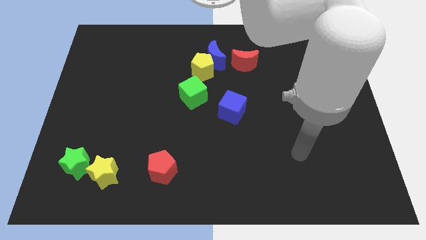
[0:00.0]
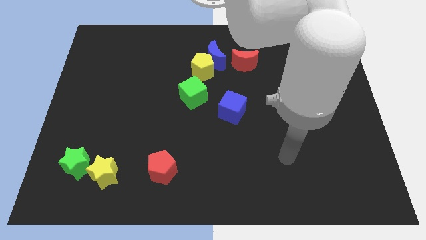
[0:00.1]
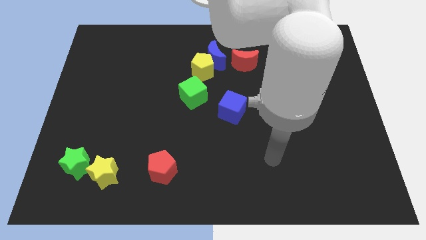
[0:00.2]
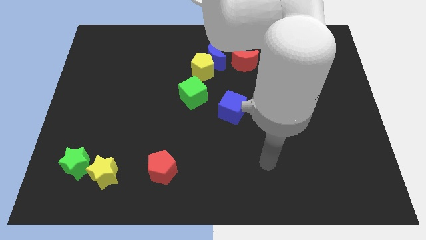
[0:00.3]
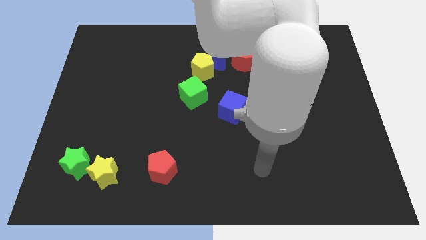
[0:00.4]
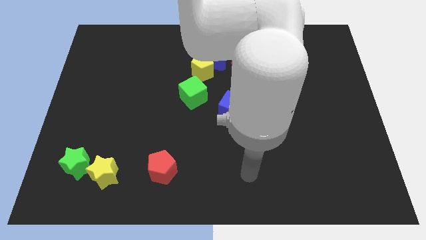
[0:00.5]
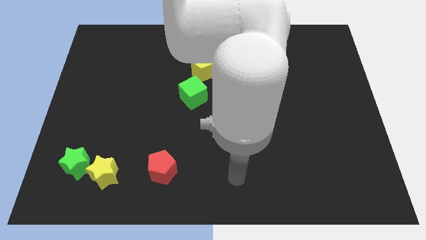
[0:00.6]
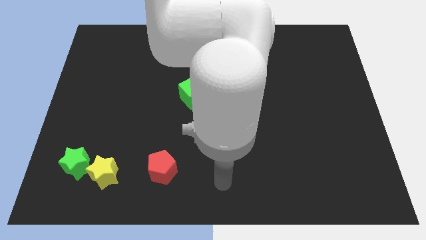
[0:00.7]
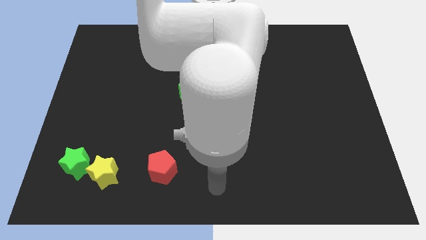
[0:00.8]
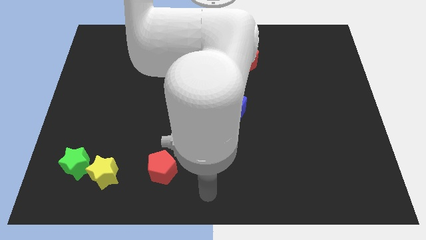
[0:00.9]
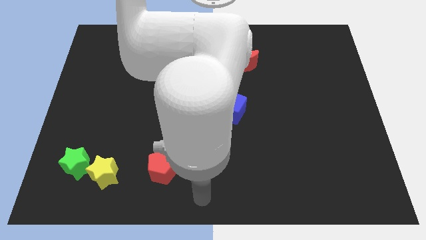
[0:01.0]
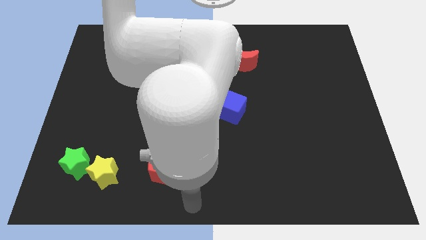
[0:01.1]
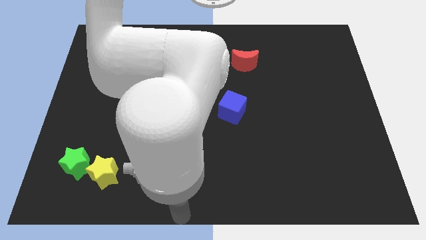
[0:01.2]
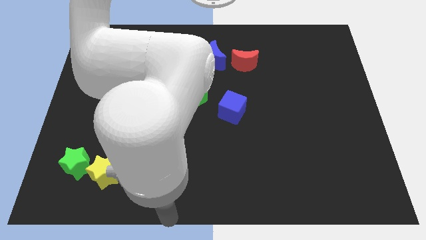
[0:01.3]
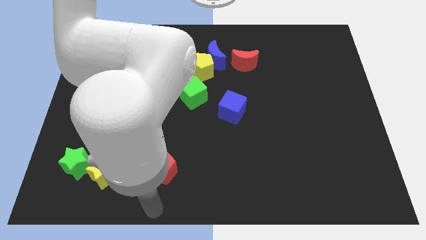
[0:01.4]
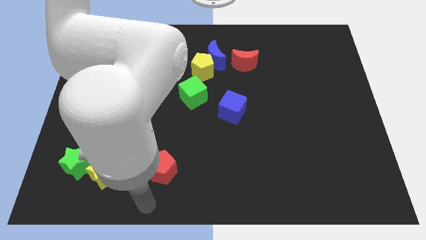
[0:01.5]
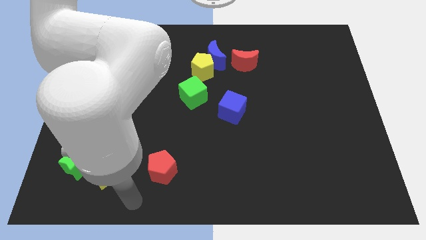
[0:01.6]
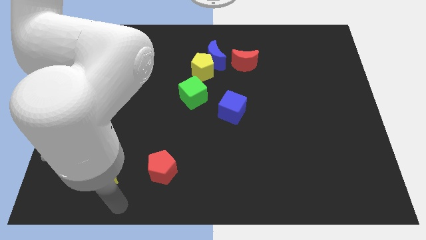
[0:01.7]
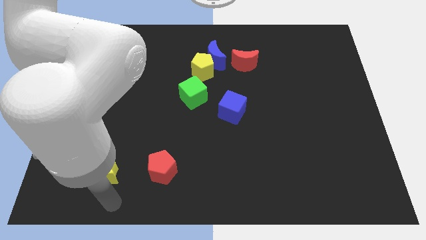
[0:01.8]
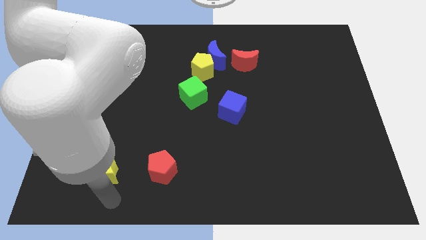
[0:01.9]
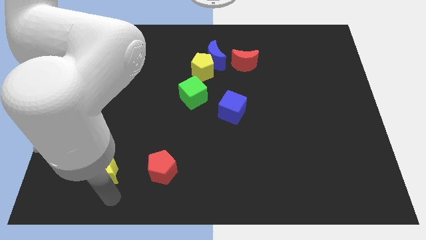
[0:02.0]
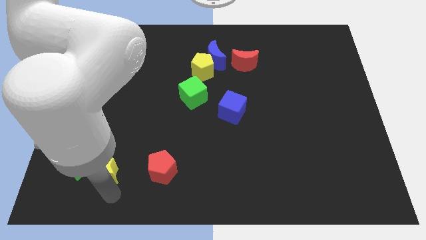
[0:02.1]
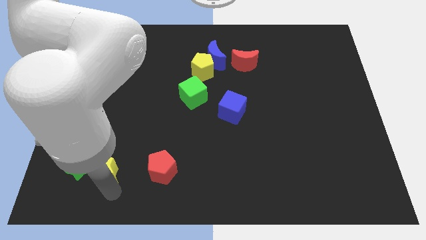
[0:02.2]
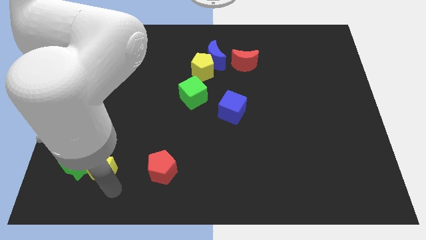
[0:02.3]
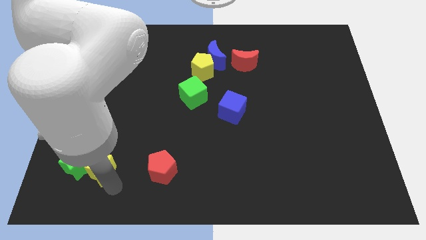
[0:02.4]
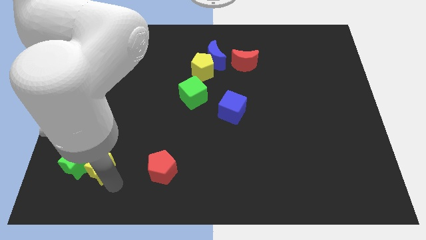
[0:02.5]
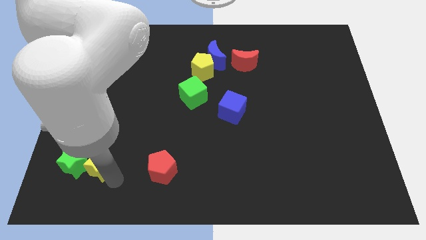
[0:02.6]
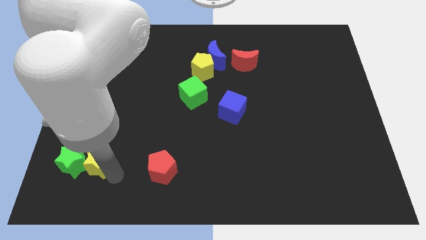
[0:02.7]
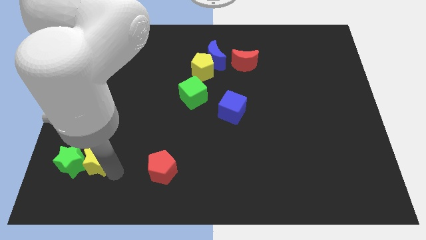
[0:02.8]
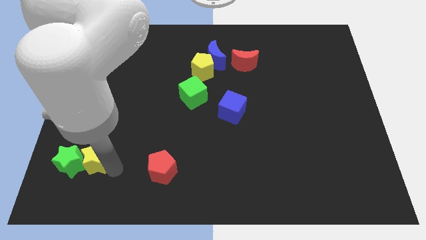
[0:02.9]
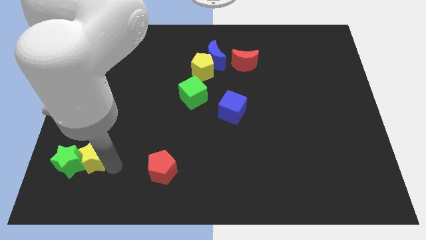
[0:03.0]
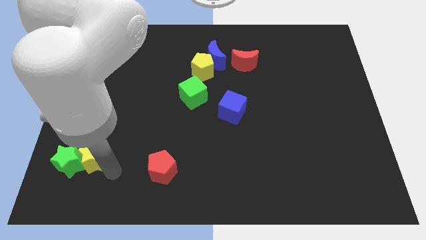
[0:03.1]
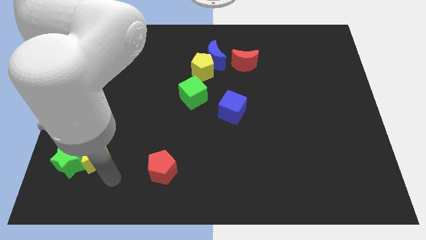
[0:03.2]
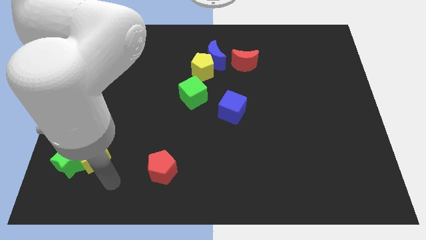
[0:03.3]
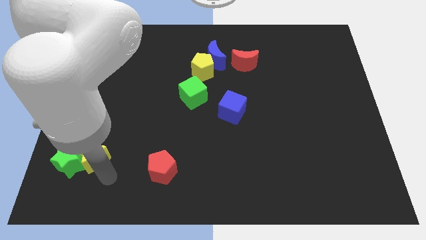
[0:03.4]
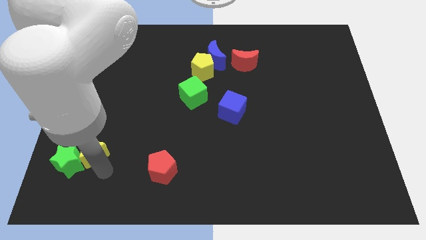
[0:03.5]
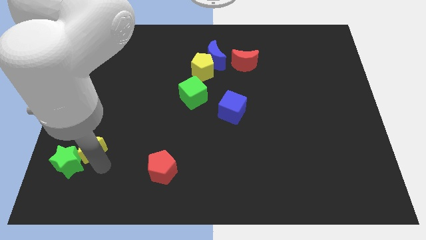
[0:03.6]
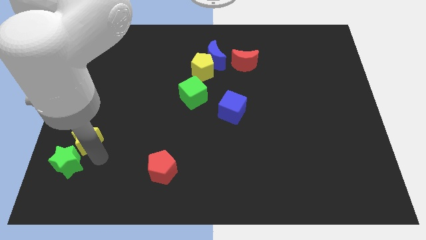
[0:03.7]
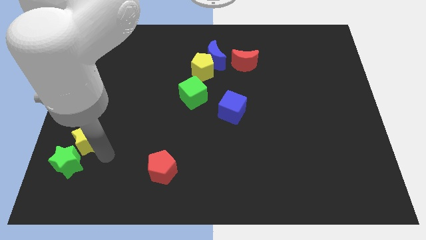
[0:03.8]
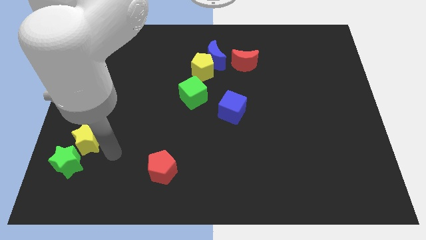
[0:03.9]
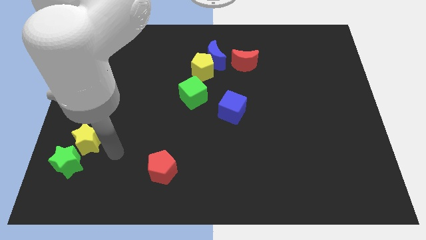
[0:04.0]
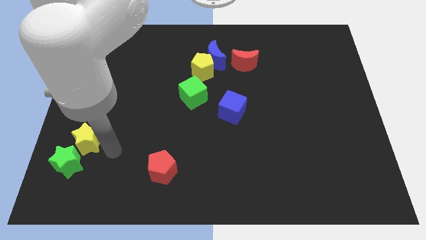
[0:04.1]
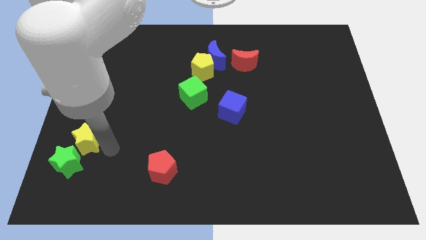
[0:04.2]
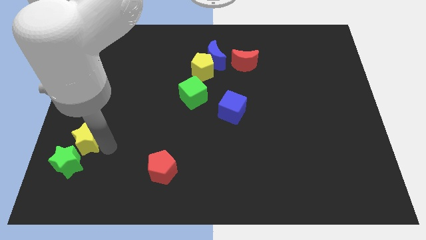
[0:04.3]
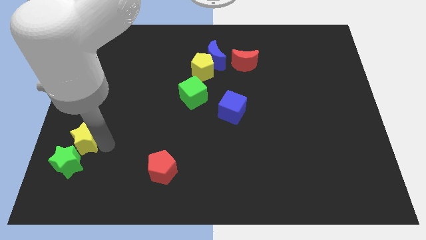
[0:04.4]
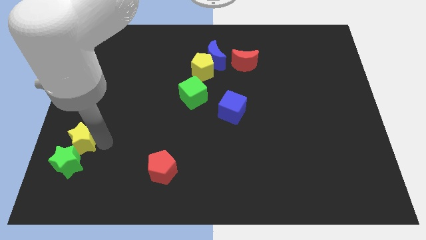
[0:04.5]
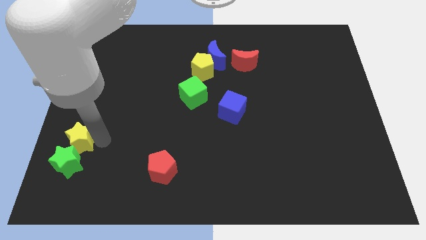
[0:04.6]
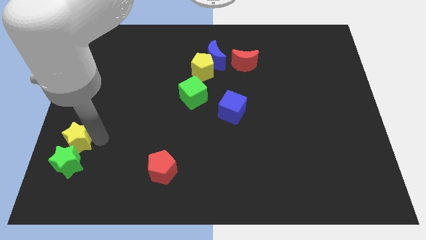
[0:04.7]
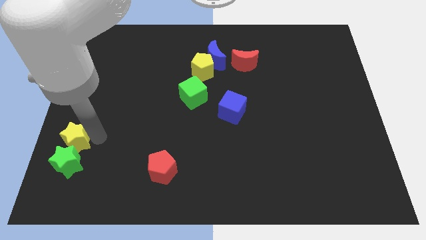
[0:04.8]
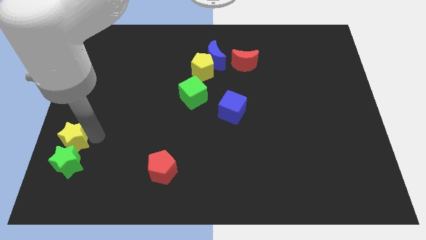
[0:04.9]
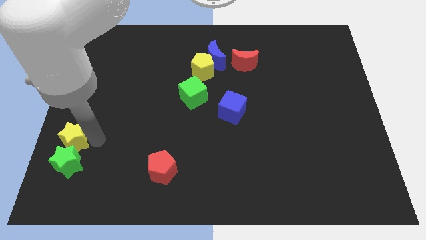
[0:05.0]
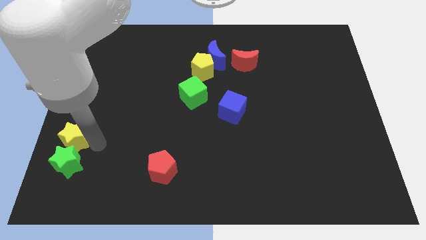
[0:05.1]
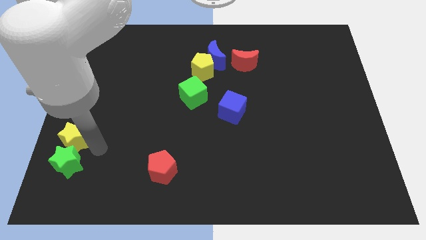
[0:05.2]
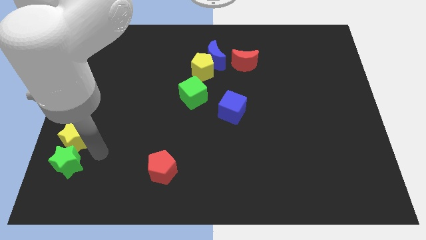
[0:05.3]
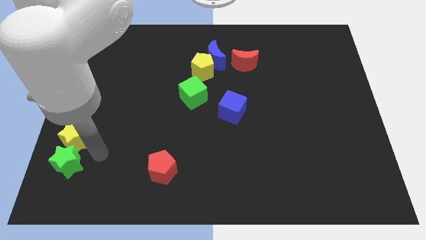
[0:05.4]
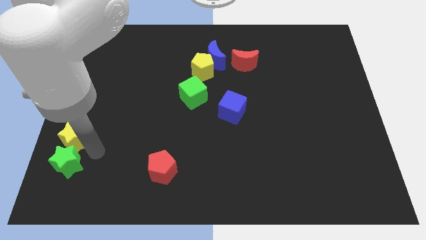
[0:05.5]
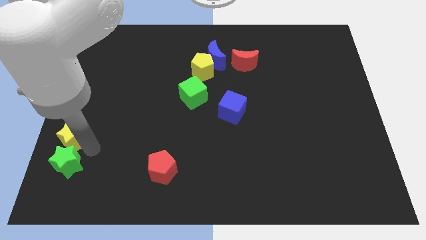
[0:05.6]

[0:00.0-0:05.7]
put the yellow star to the left side of the board

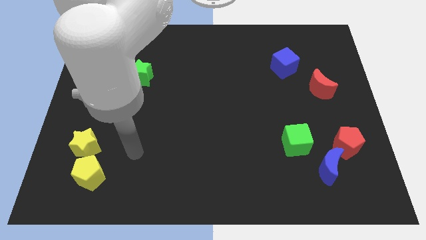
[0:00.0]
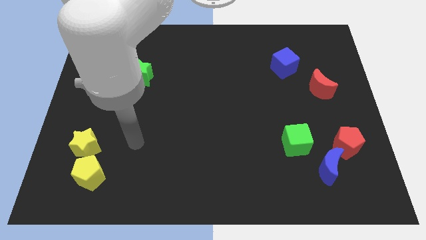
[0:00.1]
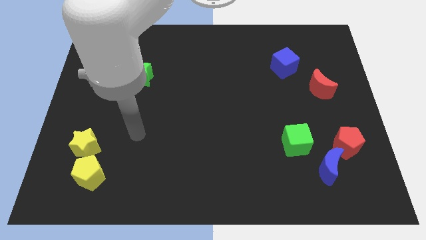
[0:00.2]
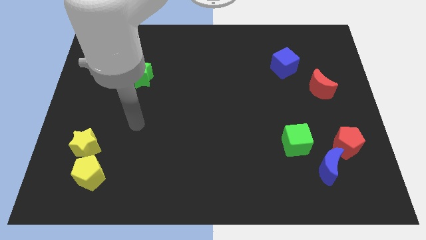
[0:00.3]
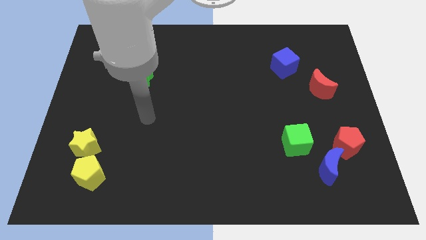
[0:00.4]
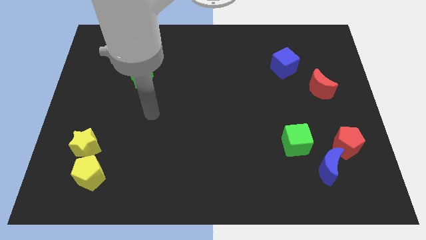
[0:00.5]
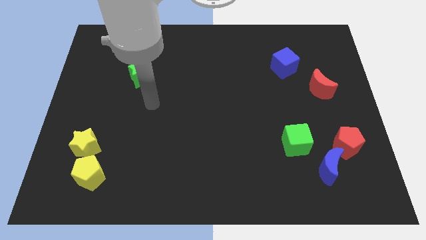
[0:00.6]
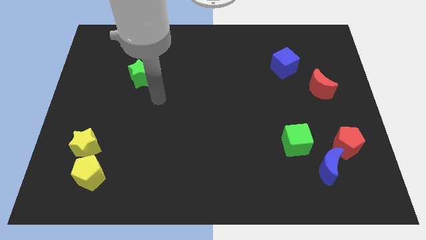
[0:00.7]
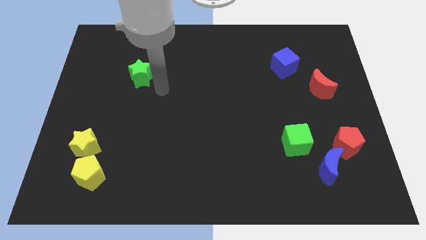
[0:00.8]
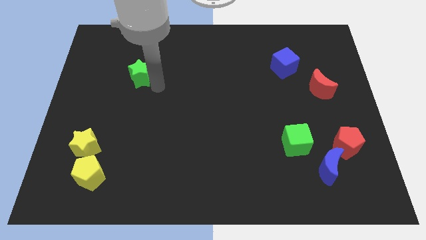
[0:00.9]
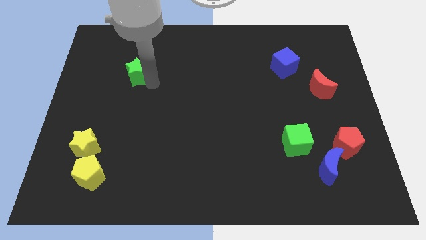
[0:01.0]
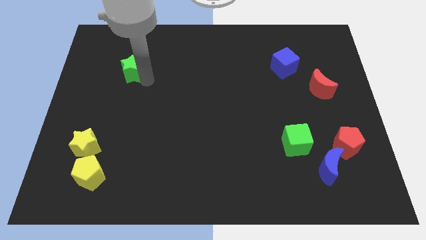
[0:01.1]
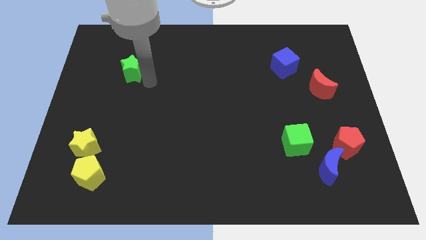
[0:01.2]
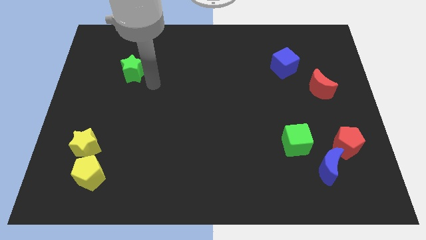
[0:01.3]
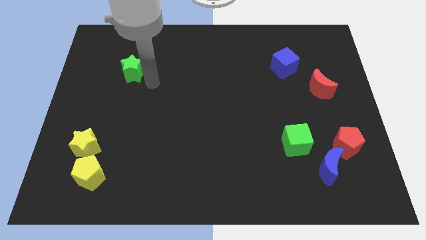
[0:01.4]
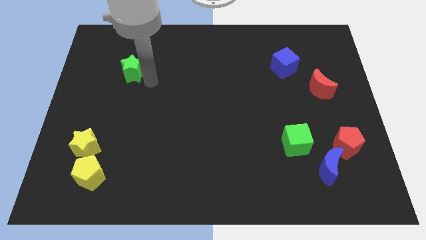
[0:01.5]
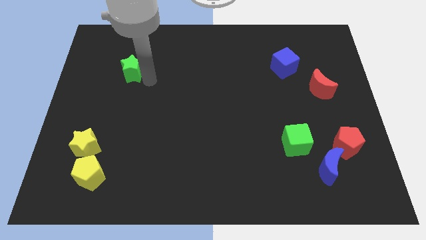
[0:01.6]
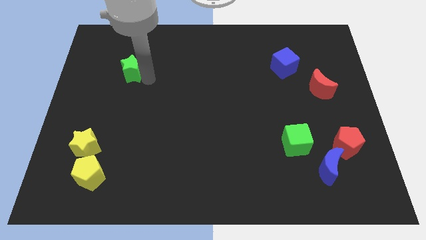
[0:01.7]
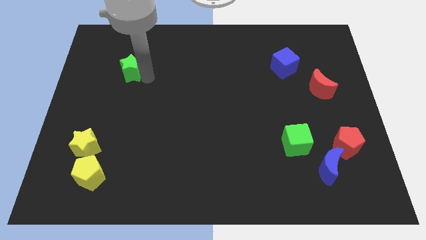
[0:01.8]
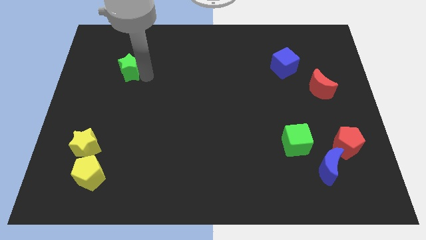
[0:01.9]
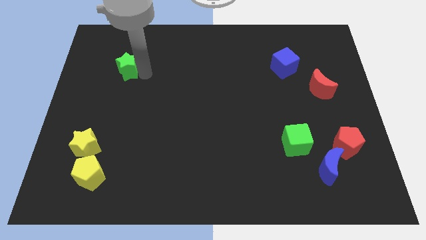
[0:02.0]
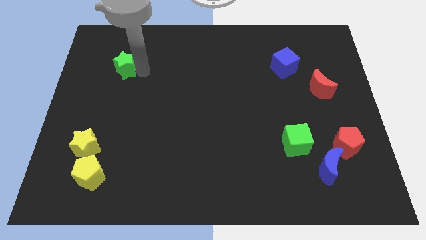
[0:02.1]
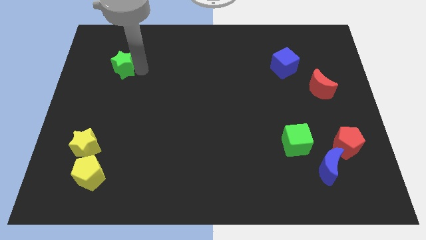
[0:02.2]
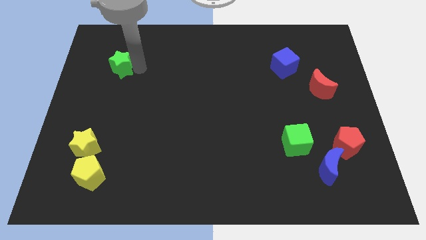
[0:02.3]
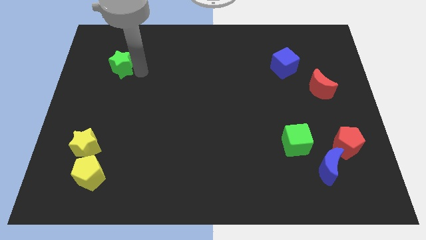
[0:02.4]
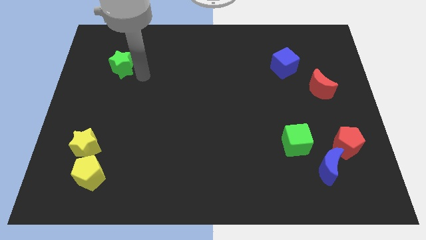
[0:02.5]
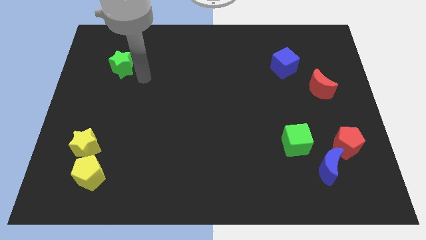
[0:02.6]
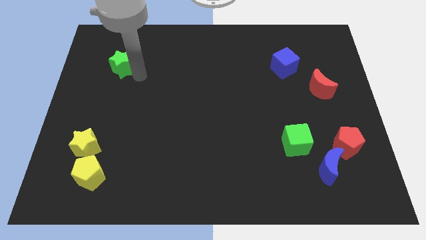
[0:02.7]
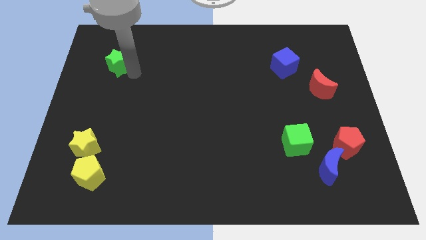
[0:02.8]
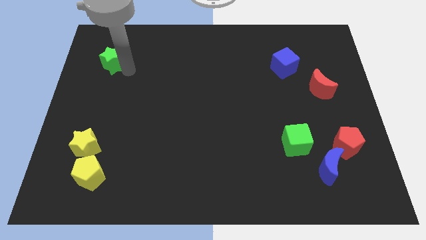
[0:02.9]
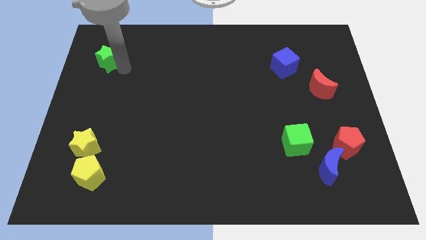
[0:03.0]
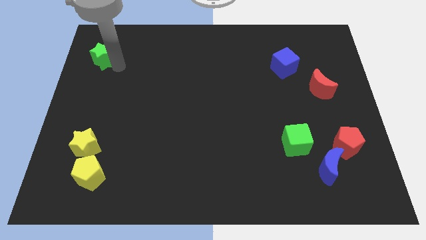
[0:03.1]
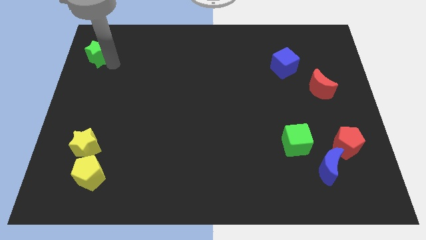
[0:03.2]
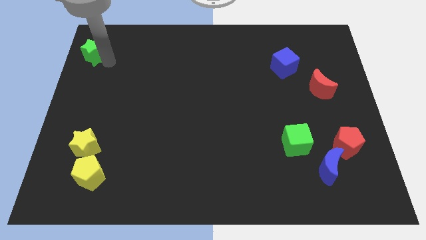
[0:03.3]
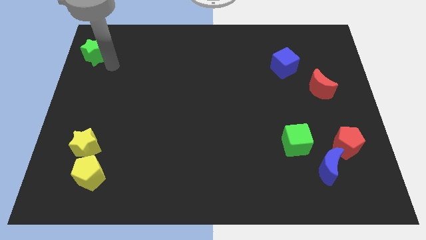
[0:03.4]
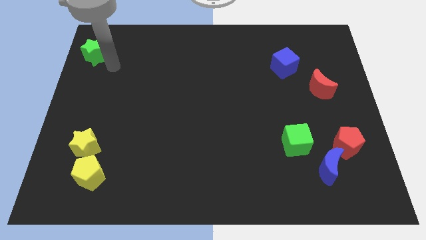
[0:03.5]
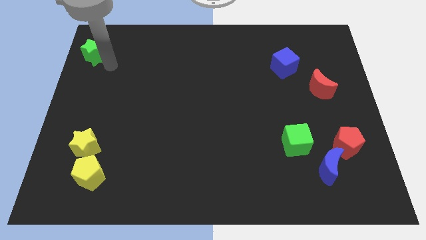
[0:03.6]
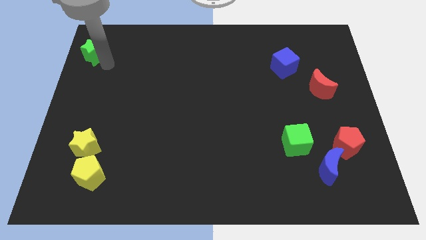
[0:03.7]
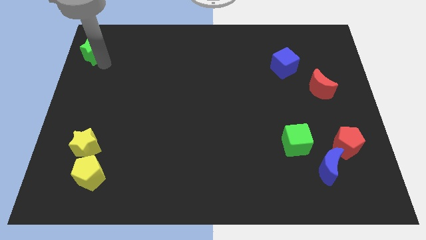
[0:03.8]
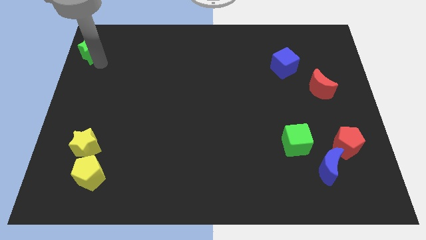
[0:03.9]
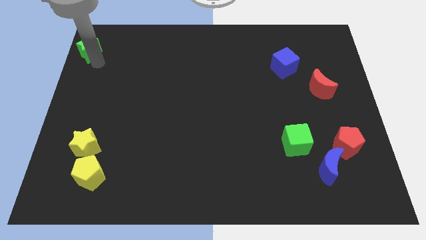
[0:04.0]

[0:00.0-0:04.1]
slide the green star to the top left
